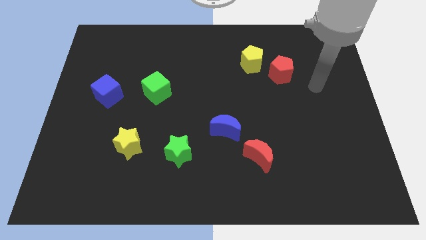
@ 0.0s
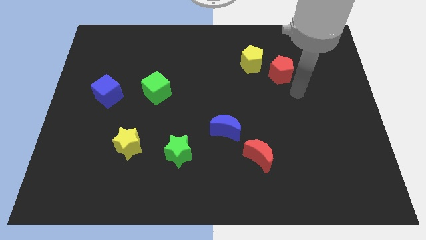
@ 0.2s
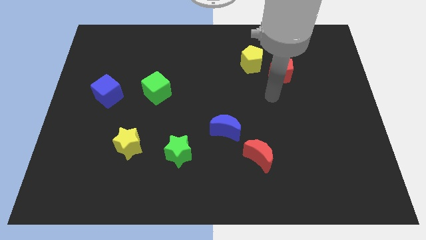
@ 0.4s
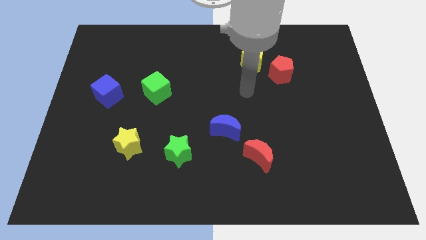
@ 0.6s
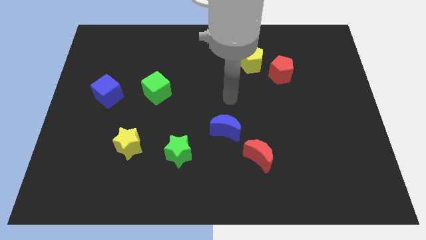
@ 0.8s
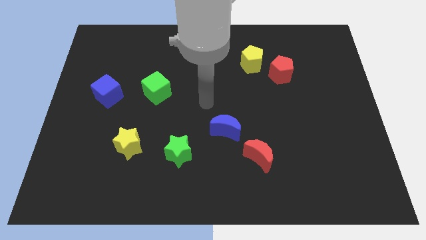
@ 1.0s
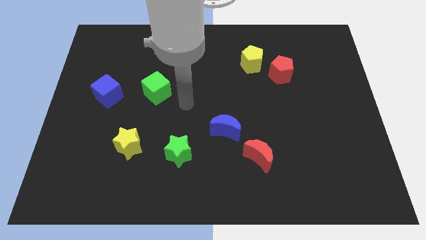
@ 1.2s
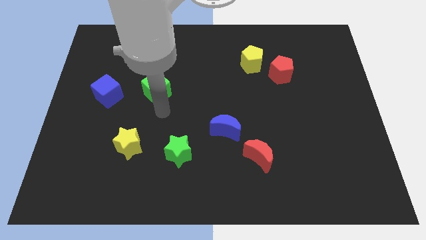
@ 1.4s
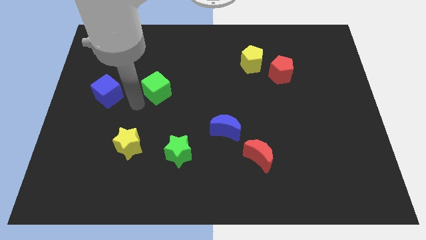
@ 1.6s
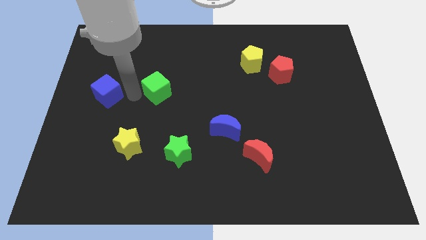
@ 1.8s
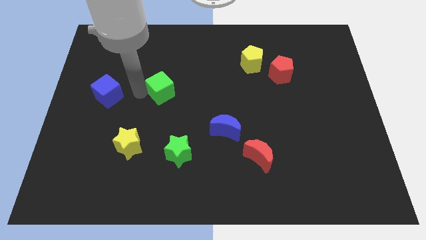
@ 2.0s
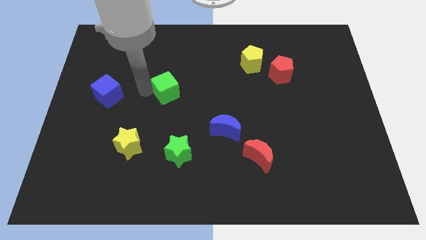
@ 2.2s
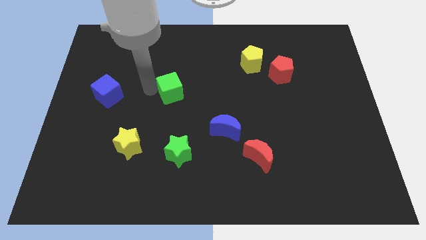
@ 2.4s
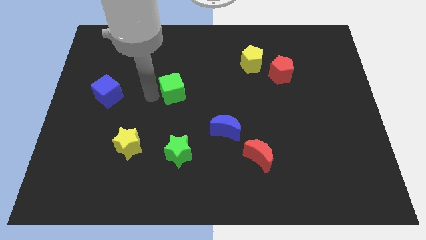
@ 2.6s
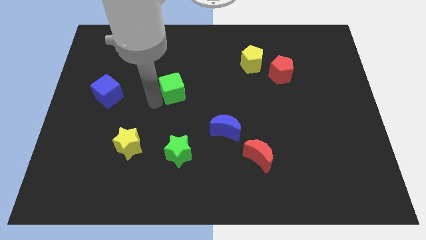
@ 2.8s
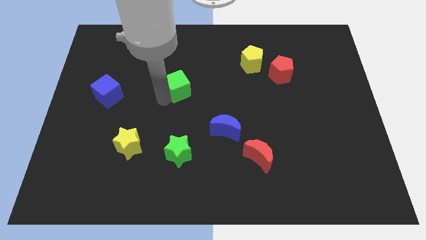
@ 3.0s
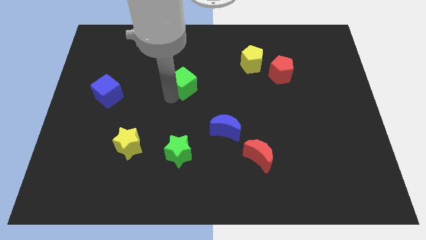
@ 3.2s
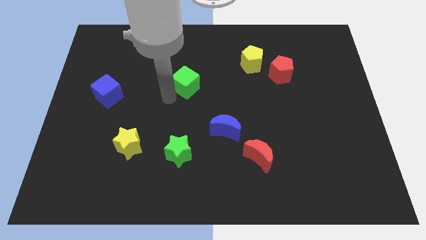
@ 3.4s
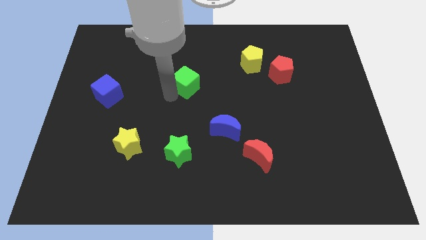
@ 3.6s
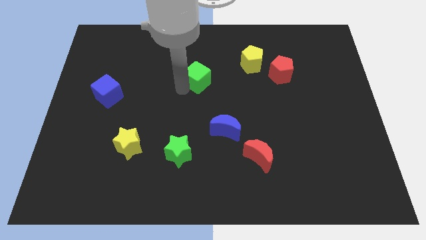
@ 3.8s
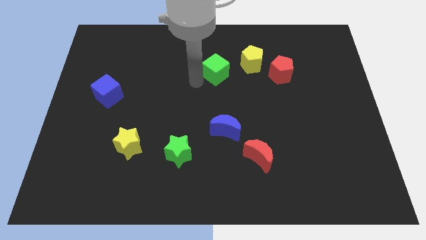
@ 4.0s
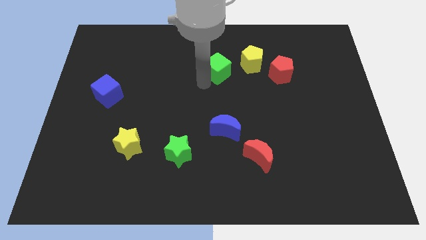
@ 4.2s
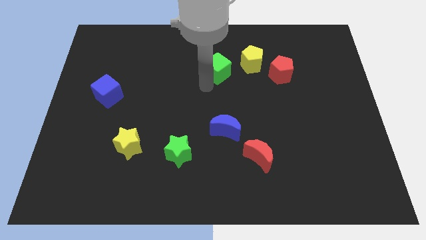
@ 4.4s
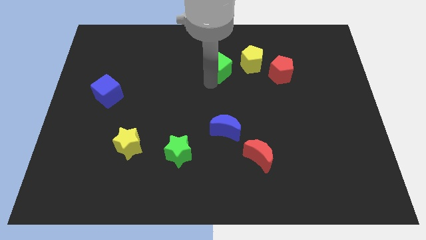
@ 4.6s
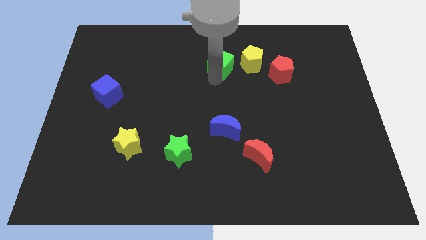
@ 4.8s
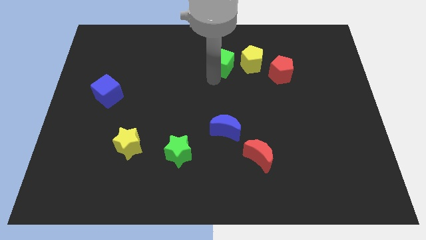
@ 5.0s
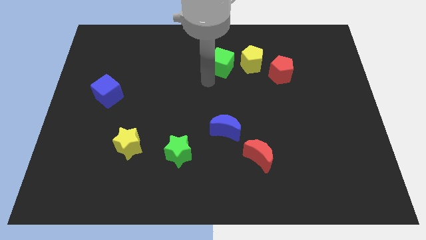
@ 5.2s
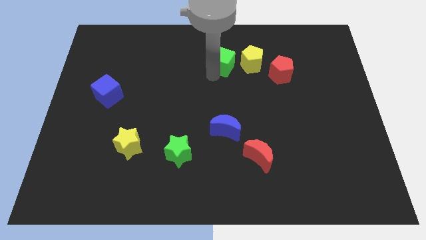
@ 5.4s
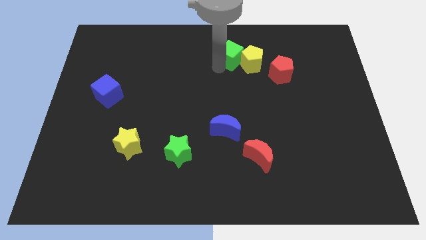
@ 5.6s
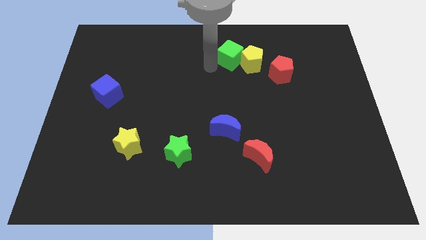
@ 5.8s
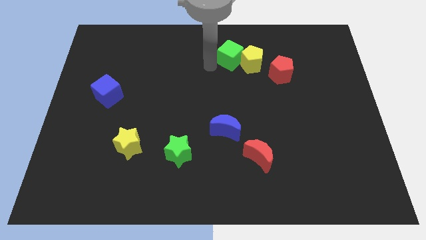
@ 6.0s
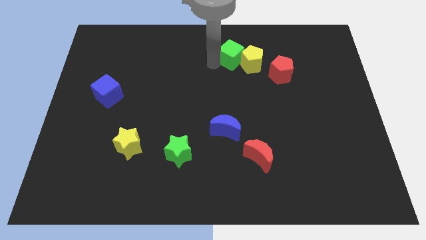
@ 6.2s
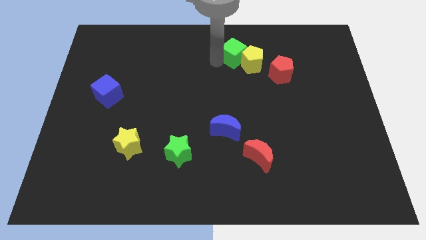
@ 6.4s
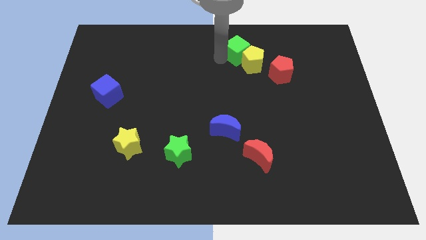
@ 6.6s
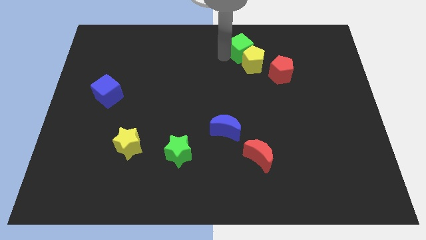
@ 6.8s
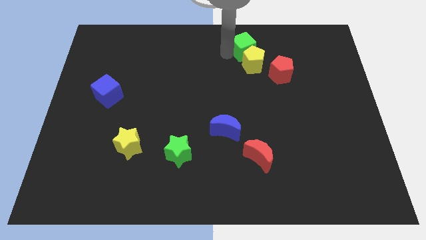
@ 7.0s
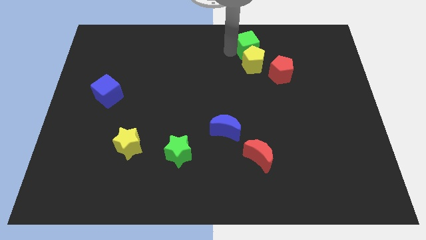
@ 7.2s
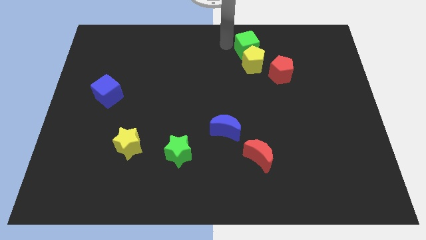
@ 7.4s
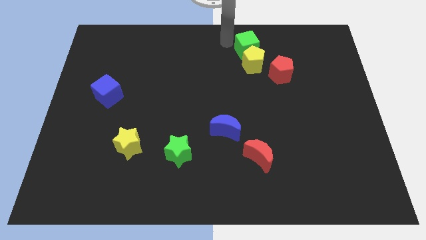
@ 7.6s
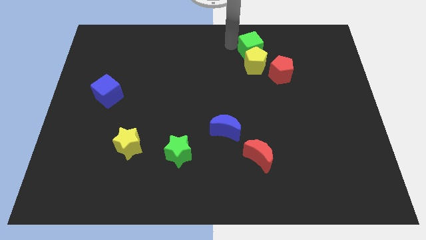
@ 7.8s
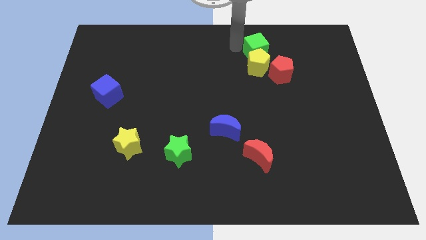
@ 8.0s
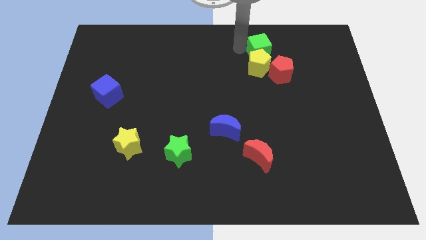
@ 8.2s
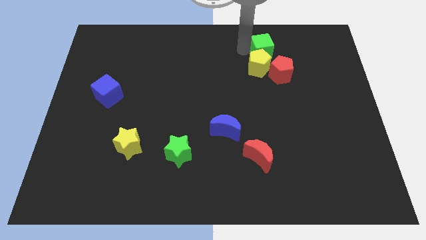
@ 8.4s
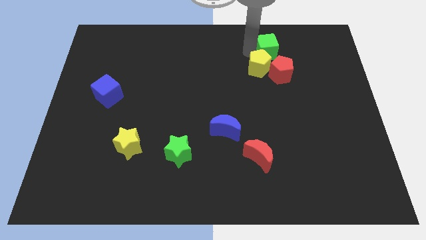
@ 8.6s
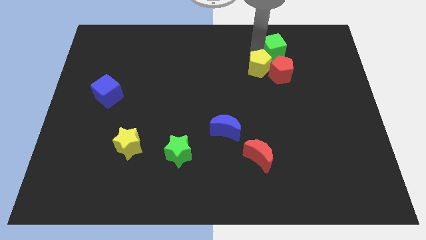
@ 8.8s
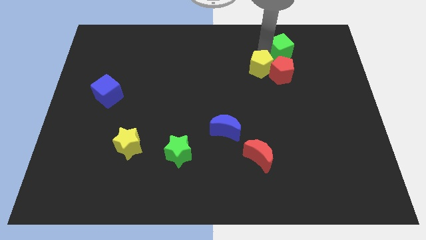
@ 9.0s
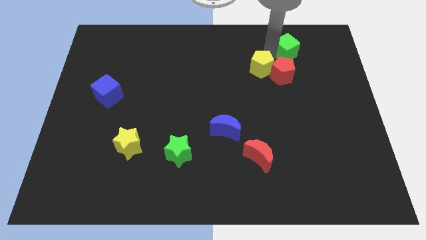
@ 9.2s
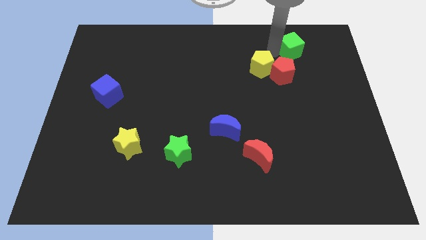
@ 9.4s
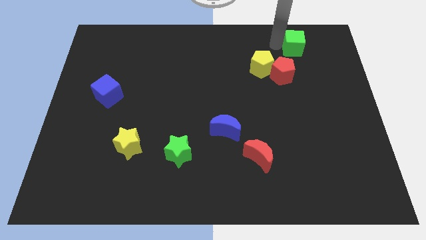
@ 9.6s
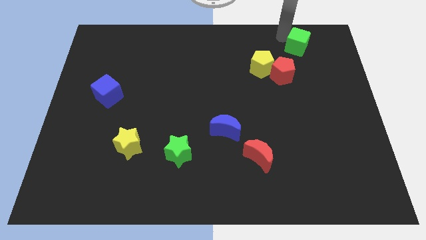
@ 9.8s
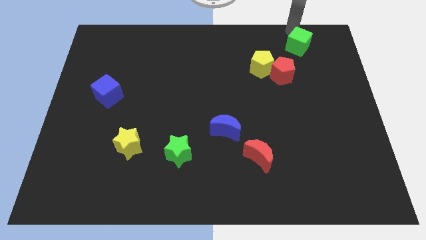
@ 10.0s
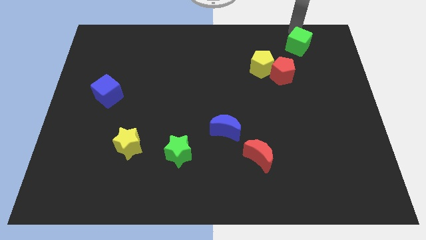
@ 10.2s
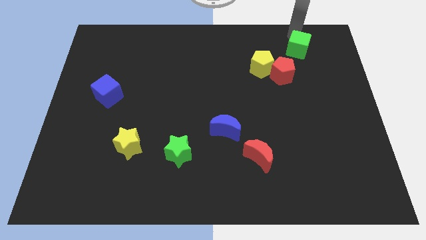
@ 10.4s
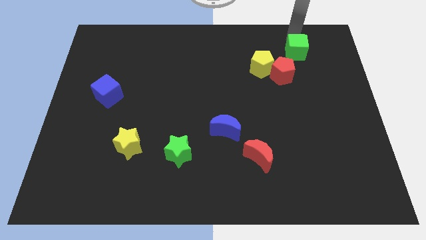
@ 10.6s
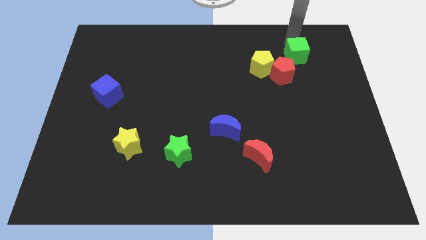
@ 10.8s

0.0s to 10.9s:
move the green cube right of the yellow pentagon

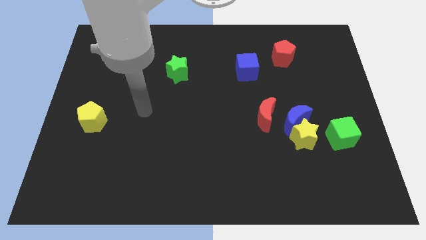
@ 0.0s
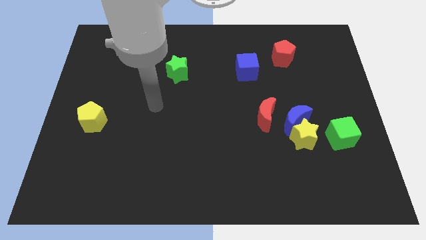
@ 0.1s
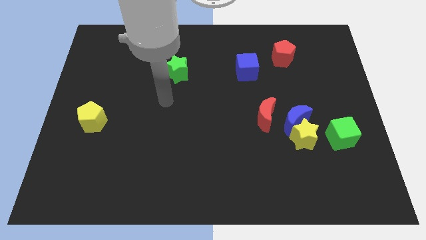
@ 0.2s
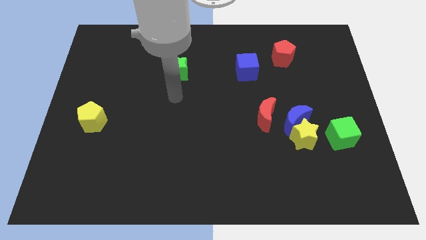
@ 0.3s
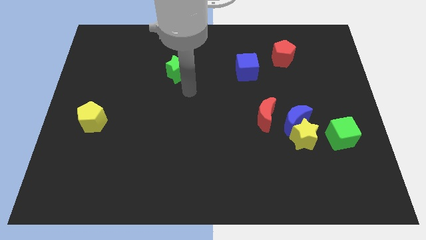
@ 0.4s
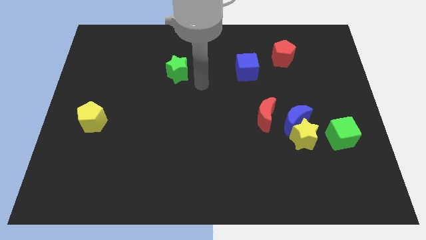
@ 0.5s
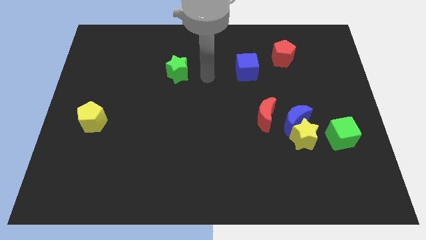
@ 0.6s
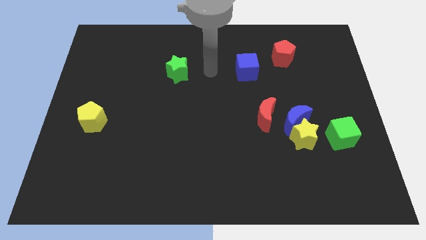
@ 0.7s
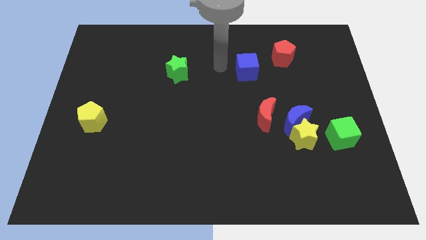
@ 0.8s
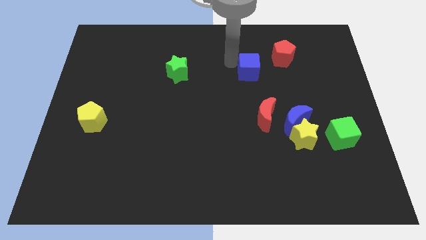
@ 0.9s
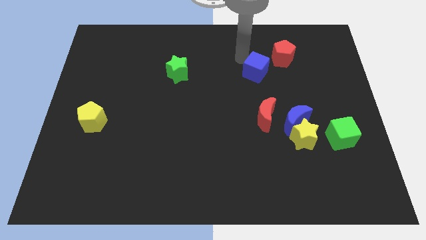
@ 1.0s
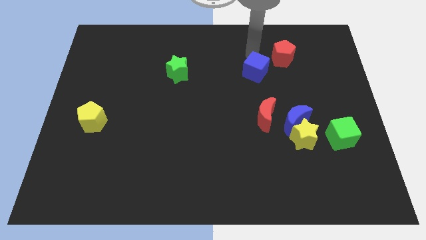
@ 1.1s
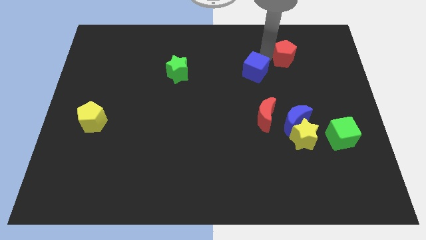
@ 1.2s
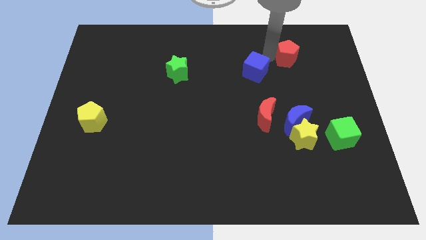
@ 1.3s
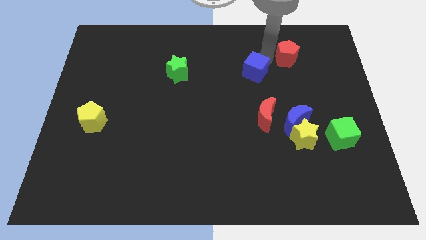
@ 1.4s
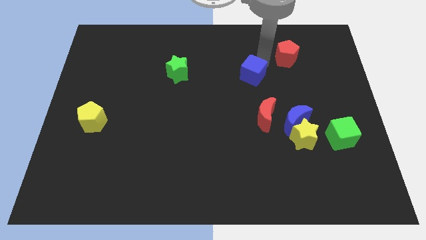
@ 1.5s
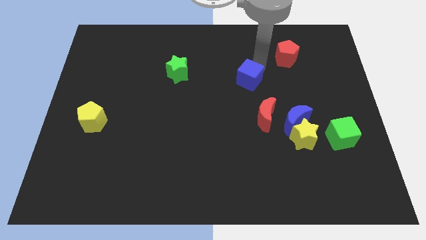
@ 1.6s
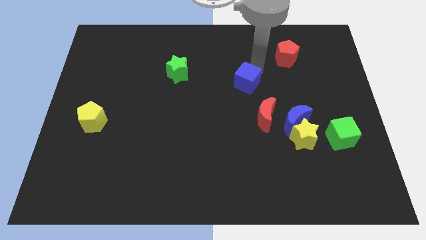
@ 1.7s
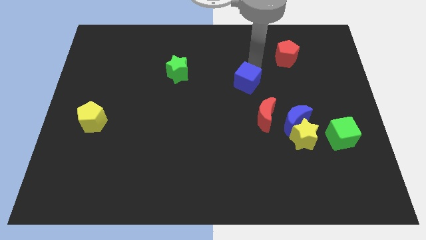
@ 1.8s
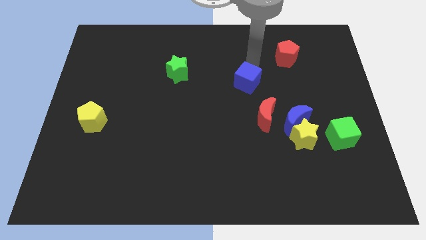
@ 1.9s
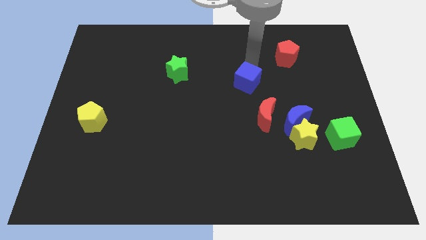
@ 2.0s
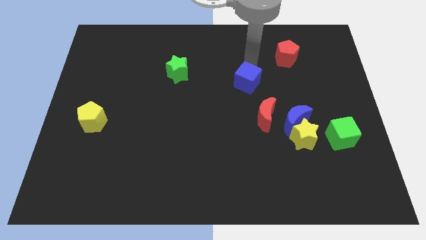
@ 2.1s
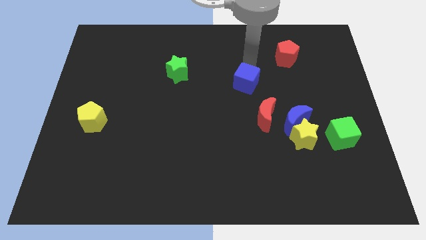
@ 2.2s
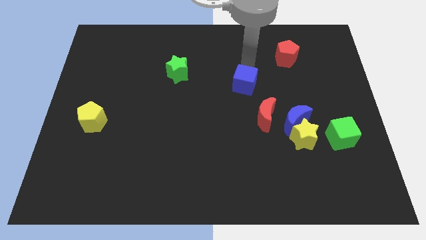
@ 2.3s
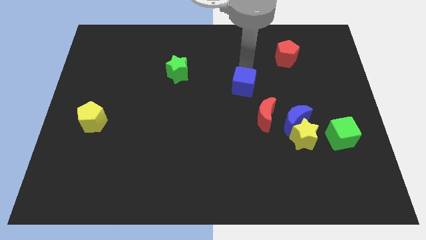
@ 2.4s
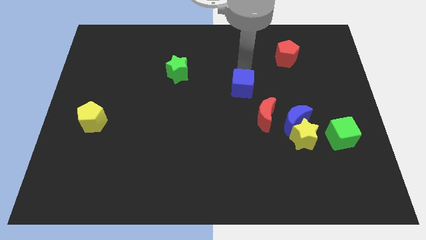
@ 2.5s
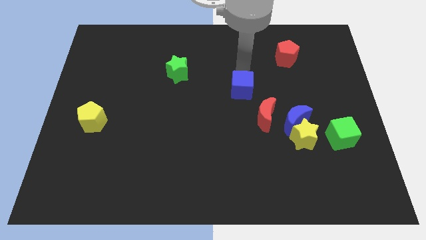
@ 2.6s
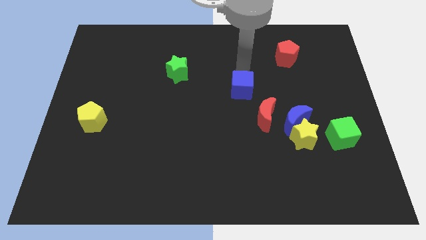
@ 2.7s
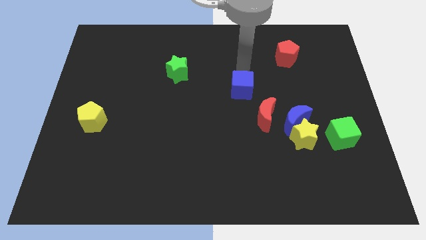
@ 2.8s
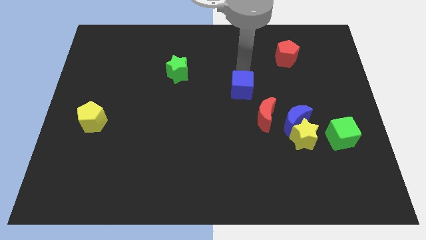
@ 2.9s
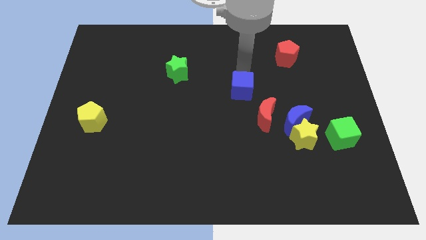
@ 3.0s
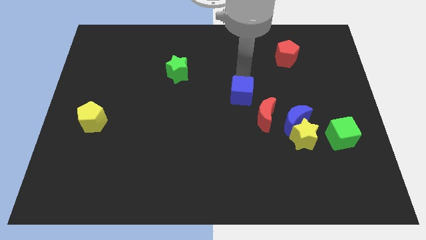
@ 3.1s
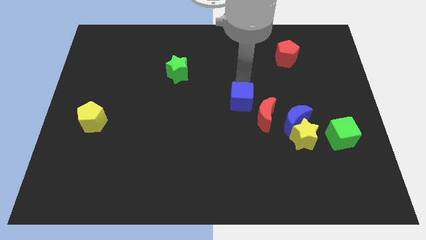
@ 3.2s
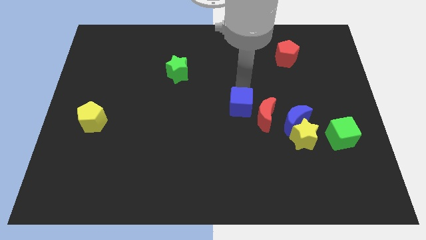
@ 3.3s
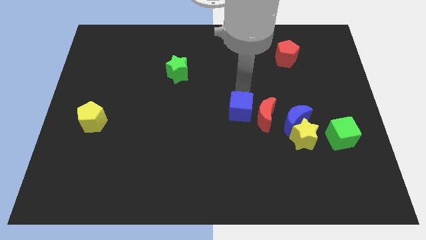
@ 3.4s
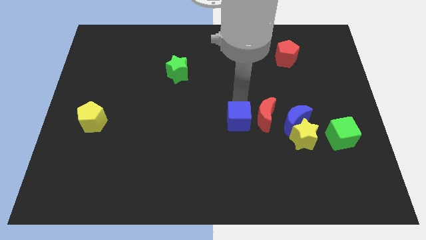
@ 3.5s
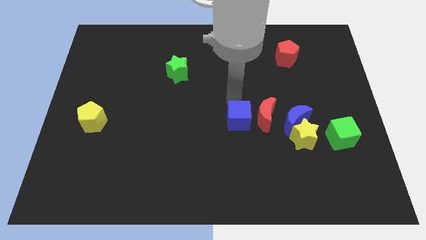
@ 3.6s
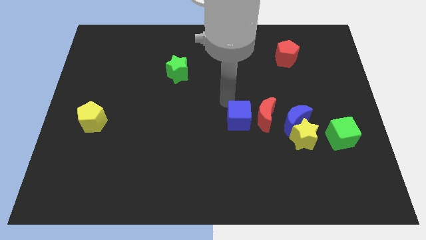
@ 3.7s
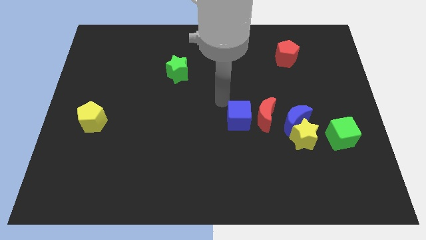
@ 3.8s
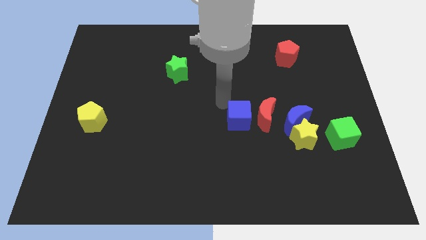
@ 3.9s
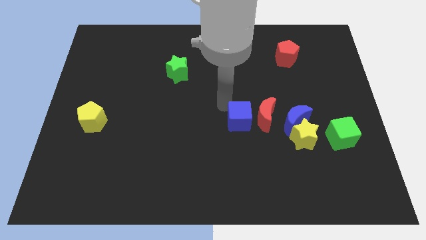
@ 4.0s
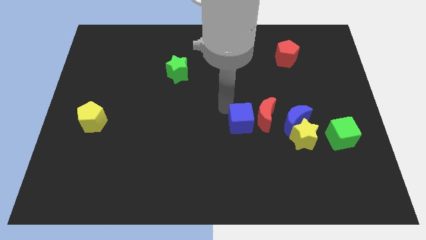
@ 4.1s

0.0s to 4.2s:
move the blue cube just left of the yellow star
